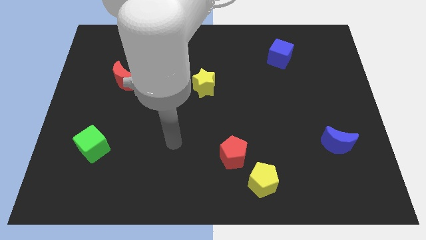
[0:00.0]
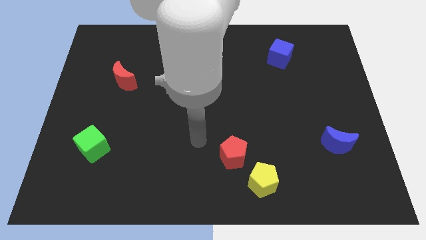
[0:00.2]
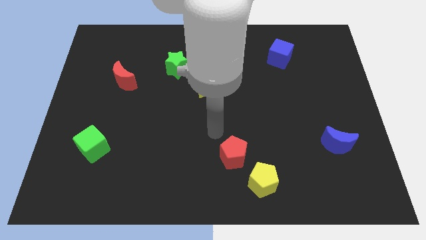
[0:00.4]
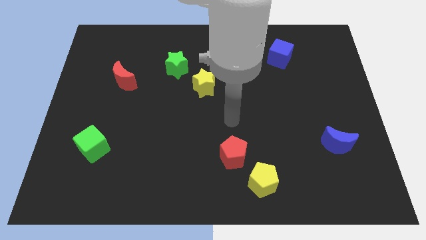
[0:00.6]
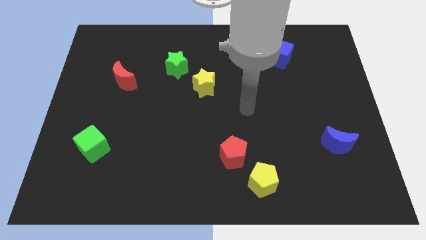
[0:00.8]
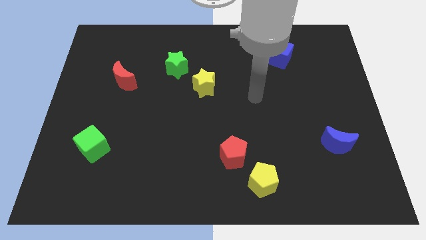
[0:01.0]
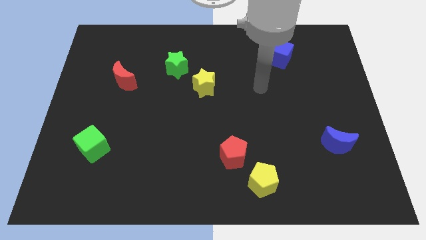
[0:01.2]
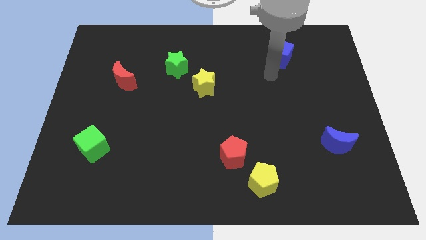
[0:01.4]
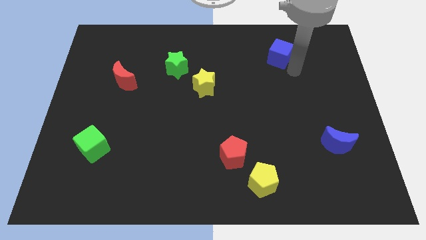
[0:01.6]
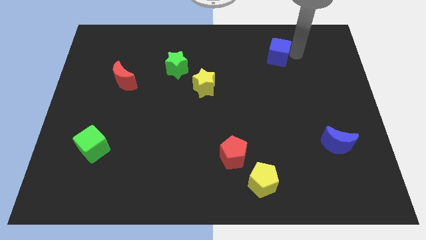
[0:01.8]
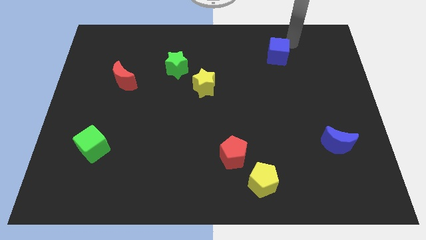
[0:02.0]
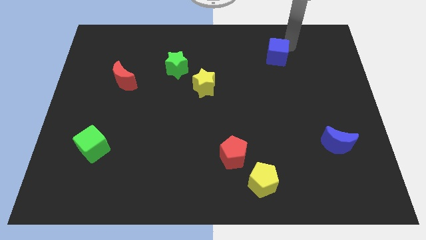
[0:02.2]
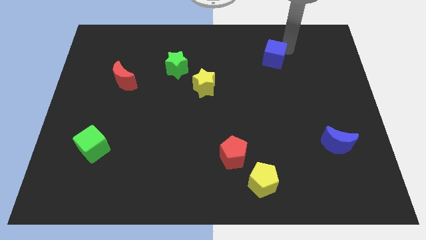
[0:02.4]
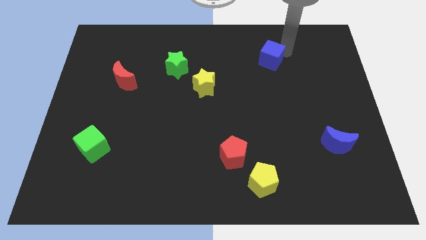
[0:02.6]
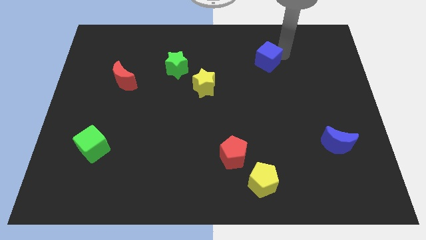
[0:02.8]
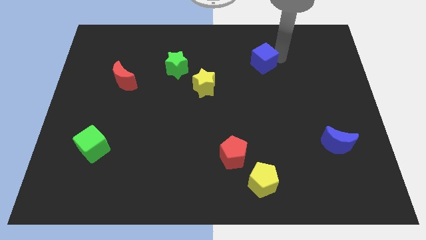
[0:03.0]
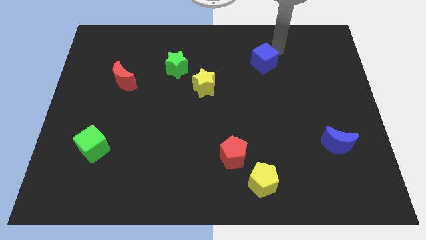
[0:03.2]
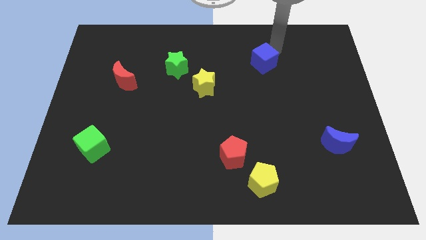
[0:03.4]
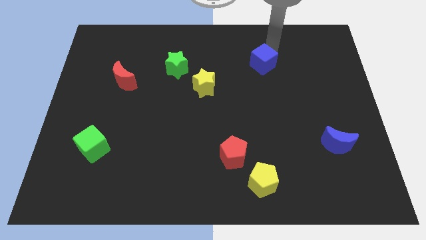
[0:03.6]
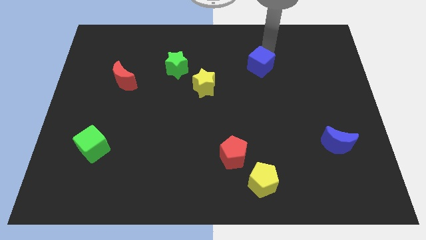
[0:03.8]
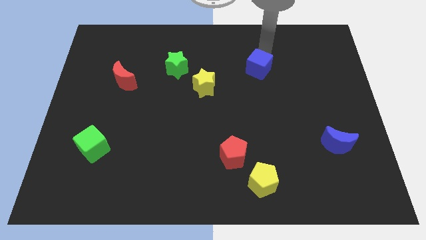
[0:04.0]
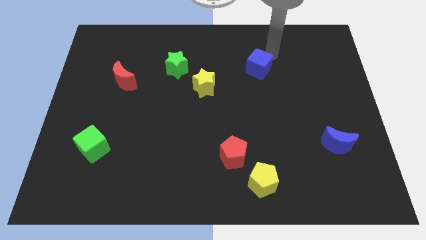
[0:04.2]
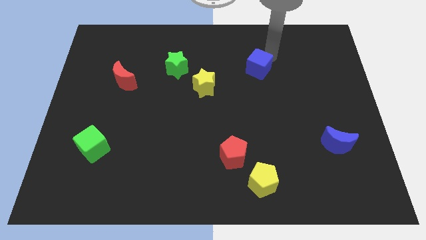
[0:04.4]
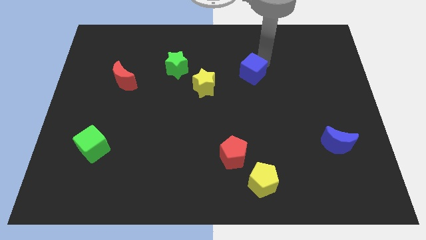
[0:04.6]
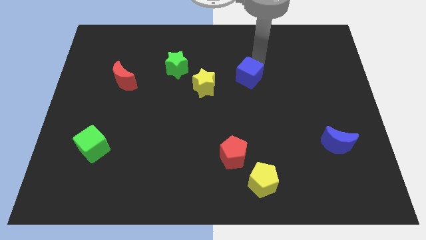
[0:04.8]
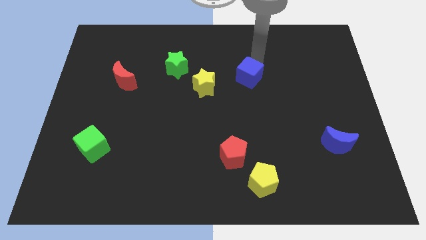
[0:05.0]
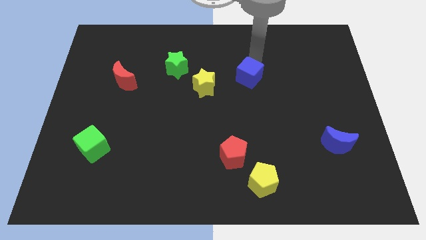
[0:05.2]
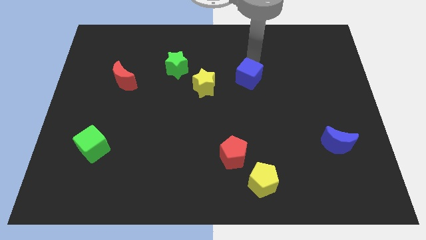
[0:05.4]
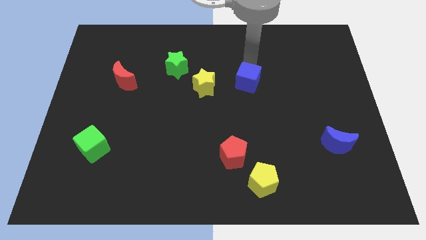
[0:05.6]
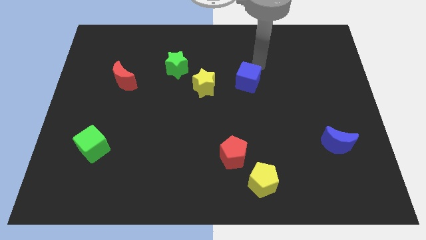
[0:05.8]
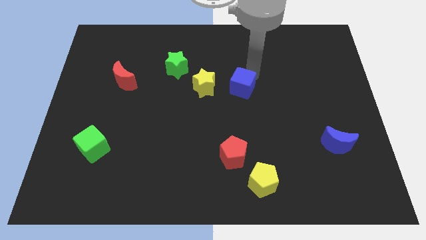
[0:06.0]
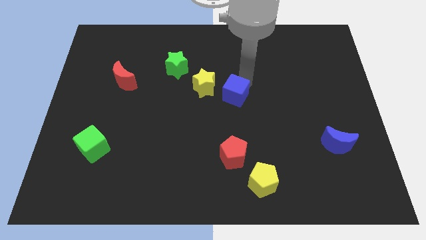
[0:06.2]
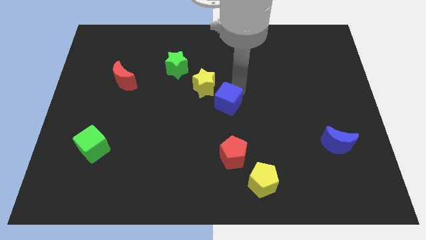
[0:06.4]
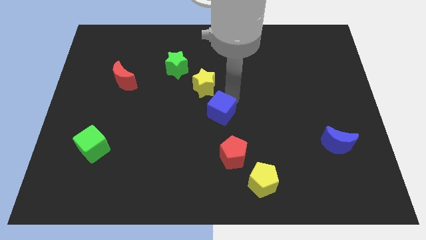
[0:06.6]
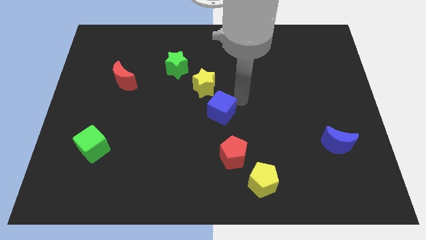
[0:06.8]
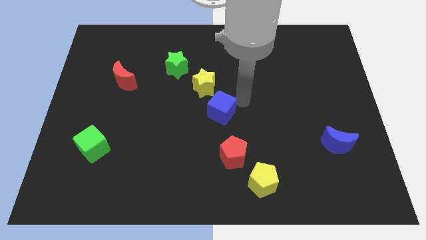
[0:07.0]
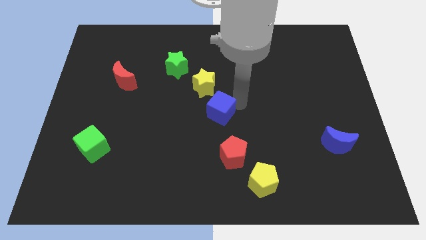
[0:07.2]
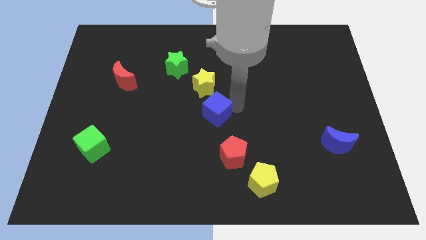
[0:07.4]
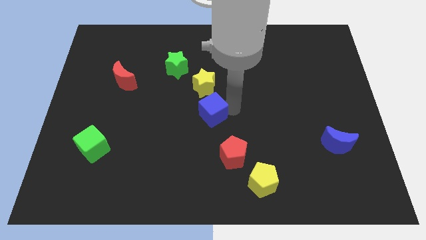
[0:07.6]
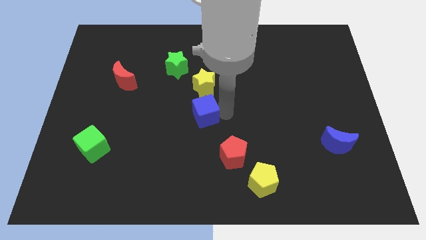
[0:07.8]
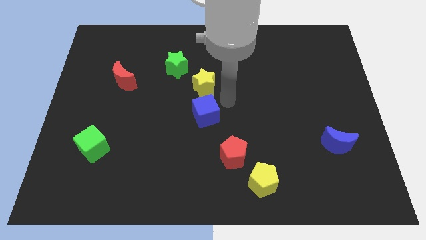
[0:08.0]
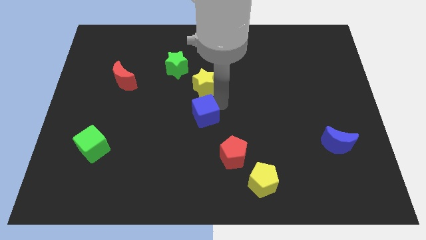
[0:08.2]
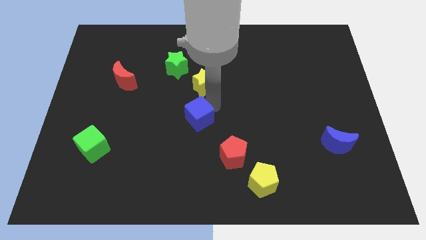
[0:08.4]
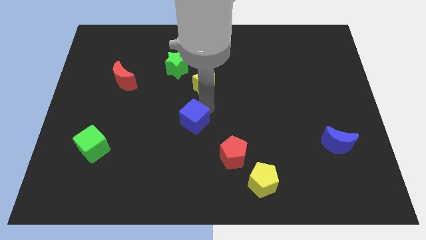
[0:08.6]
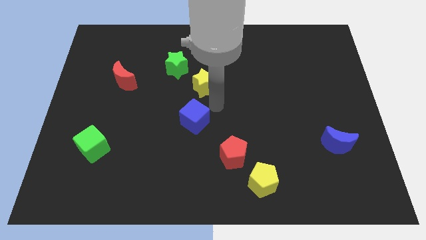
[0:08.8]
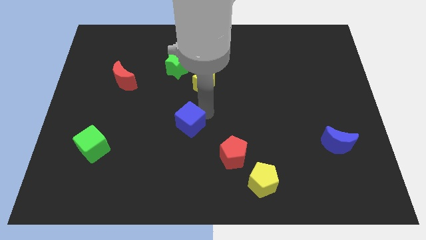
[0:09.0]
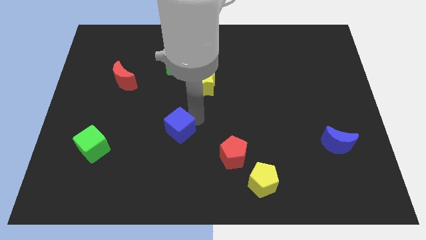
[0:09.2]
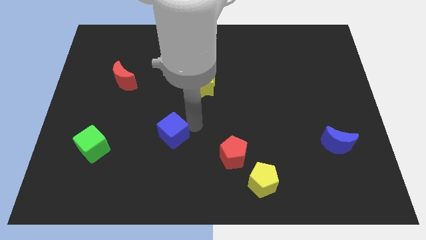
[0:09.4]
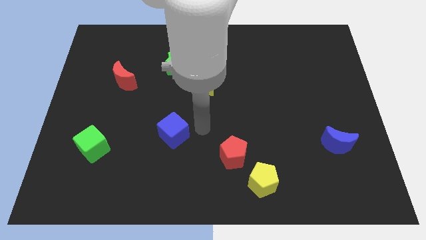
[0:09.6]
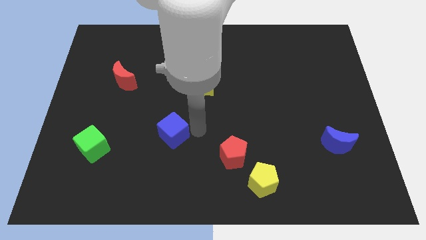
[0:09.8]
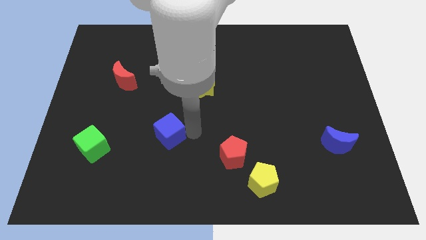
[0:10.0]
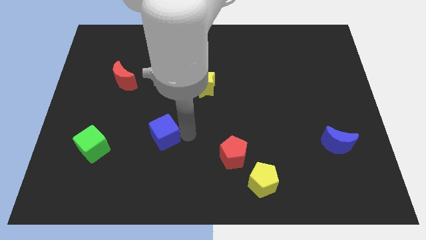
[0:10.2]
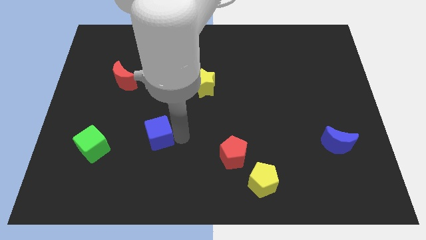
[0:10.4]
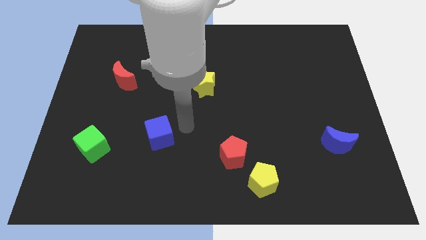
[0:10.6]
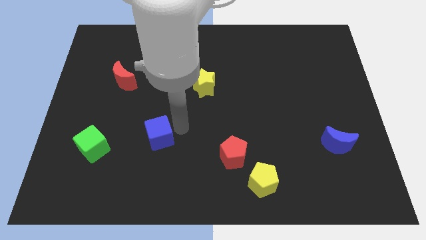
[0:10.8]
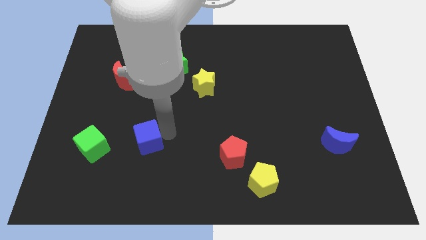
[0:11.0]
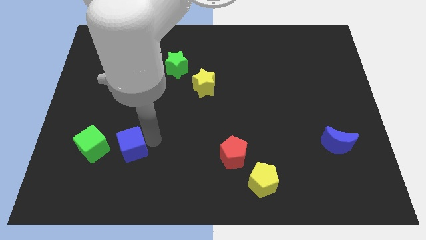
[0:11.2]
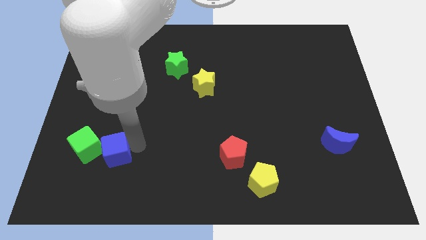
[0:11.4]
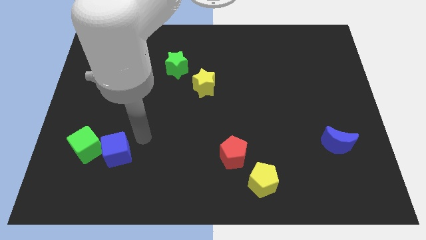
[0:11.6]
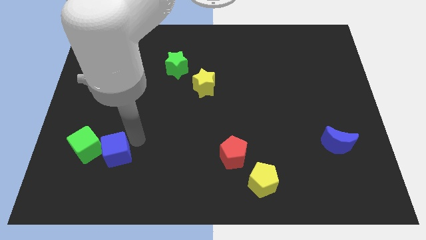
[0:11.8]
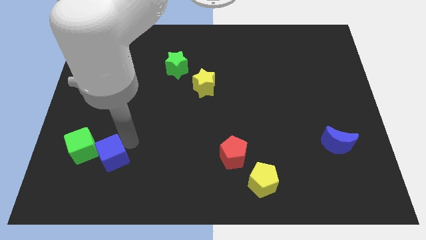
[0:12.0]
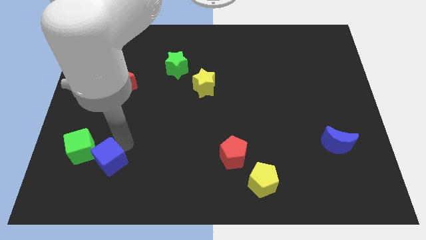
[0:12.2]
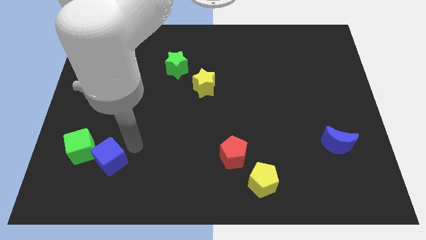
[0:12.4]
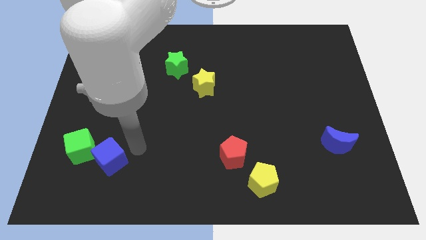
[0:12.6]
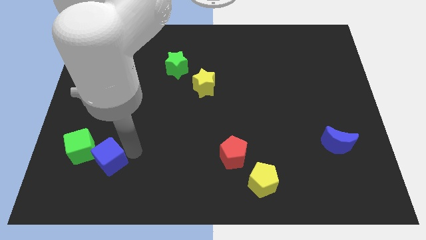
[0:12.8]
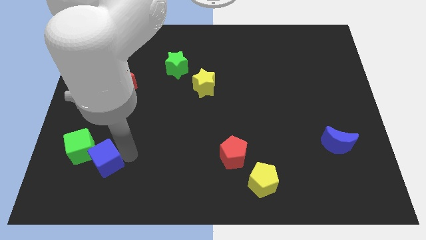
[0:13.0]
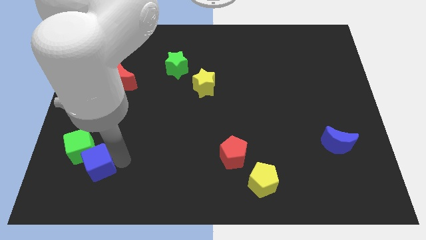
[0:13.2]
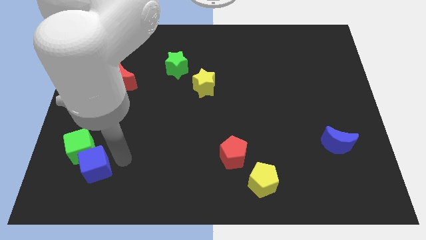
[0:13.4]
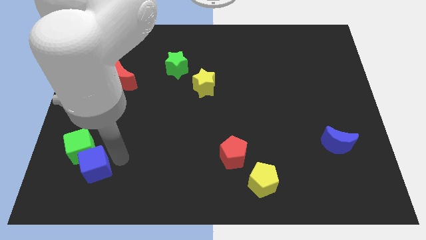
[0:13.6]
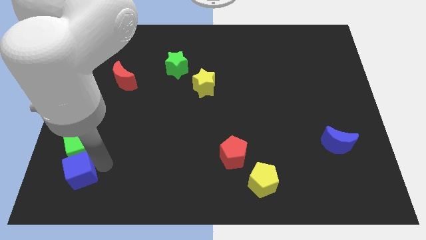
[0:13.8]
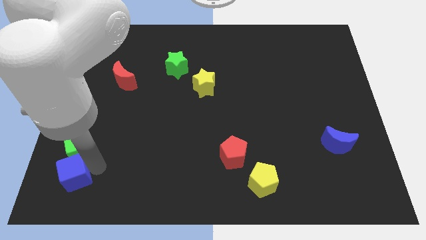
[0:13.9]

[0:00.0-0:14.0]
push the blue cube to the lower left corner
